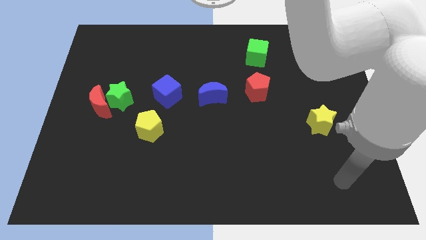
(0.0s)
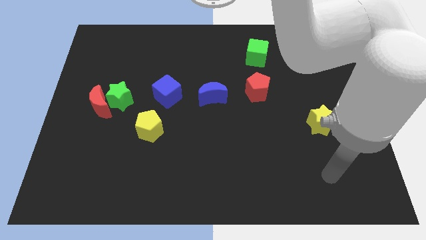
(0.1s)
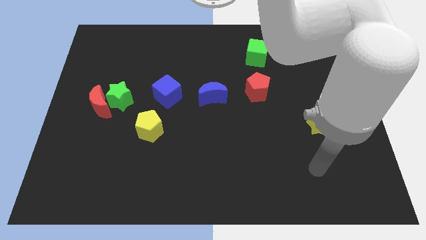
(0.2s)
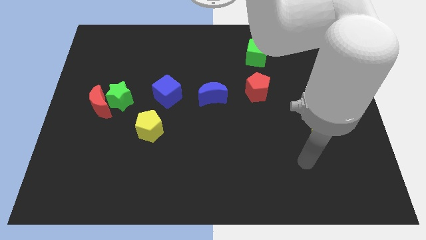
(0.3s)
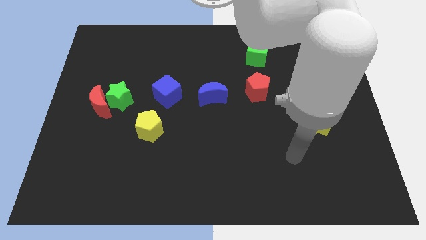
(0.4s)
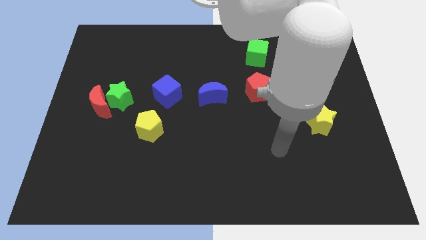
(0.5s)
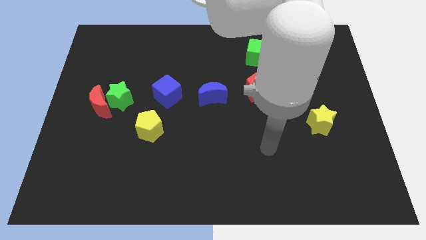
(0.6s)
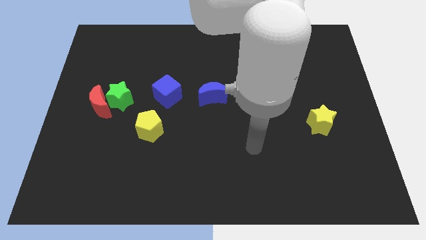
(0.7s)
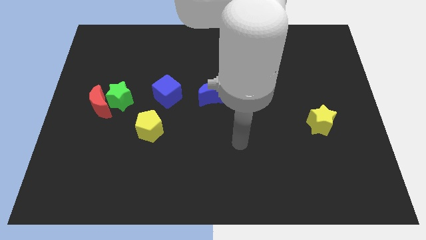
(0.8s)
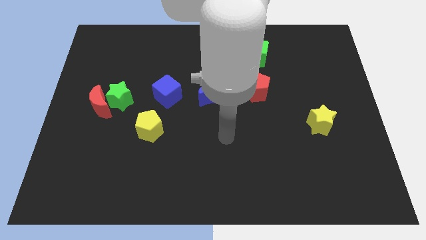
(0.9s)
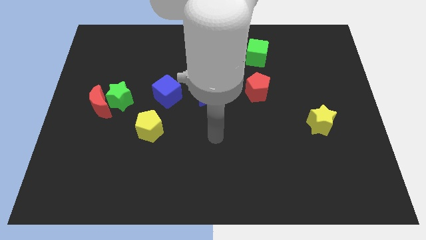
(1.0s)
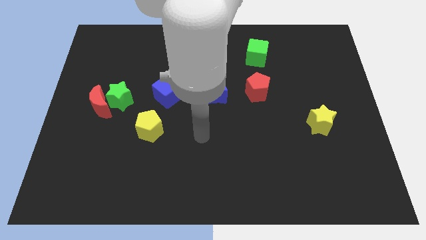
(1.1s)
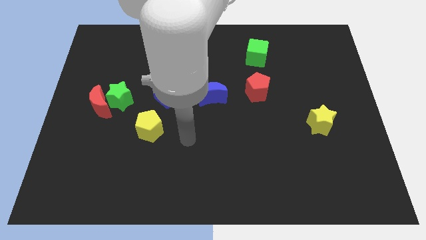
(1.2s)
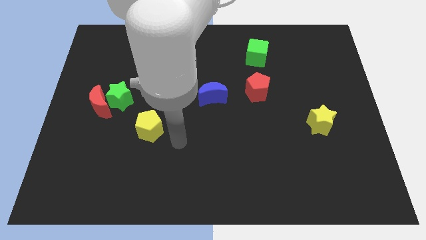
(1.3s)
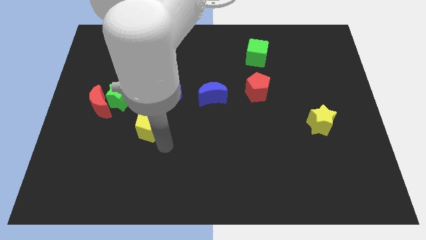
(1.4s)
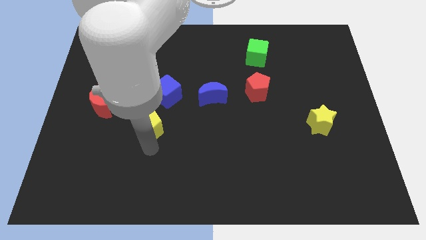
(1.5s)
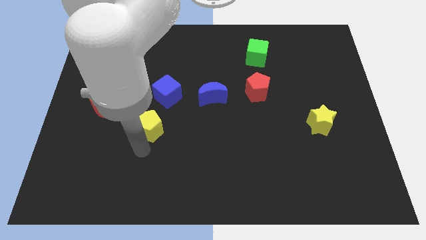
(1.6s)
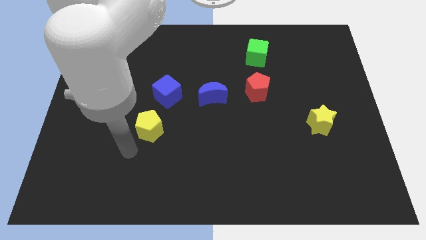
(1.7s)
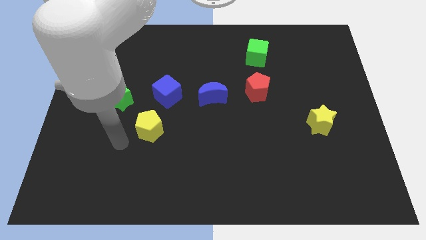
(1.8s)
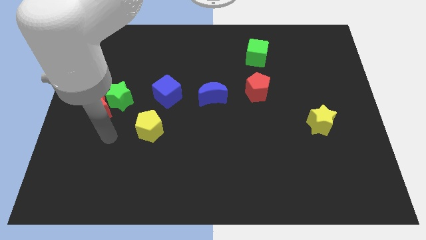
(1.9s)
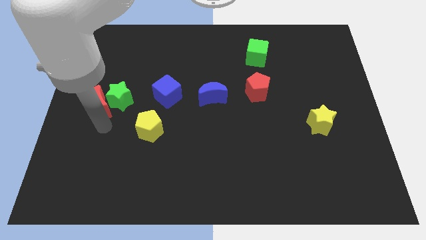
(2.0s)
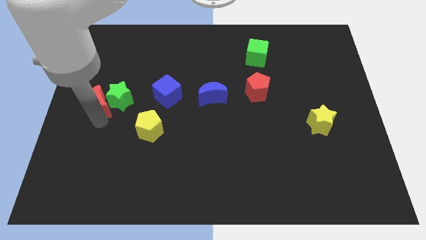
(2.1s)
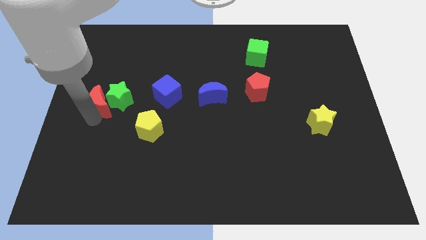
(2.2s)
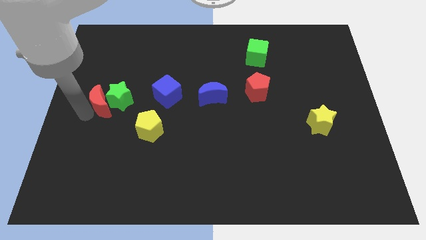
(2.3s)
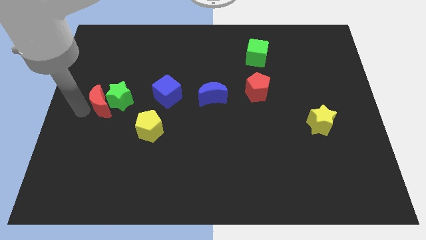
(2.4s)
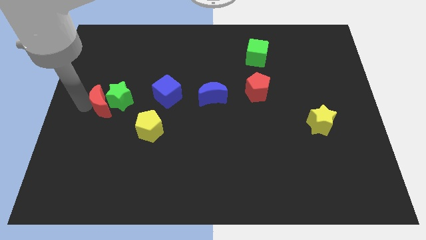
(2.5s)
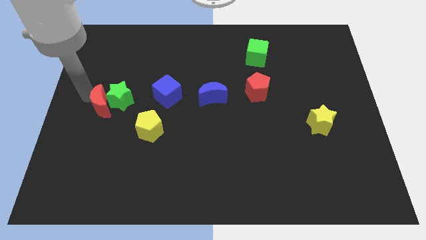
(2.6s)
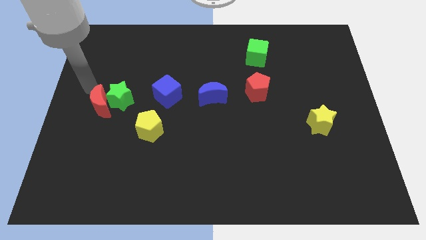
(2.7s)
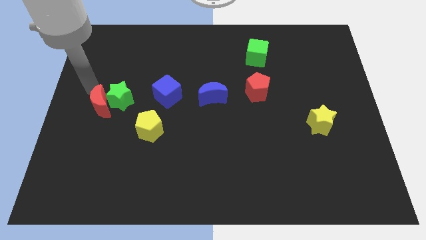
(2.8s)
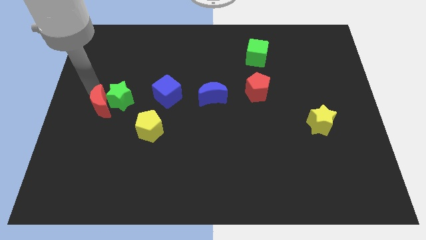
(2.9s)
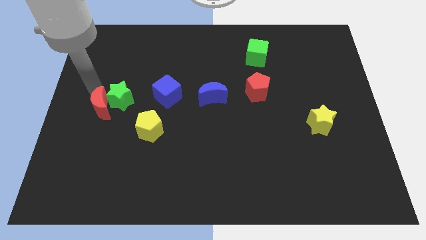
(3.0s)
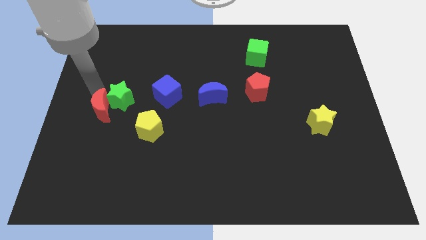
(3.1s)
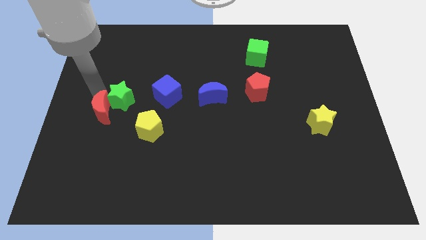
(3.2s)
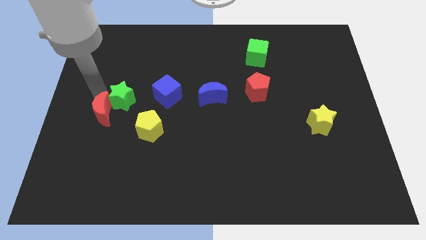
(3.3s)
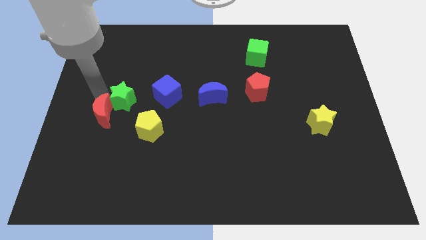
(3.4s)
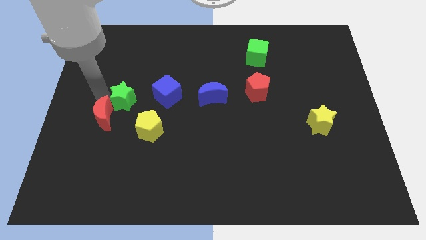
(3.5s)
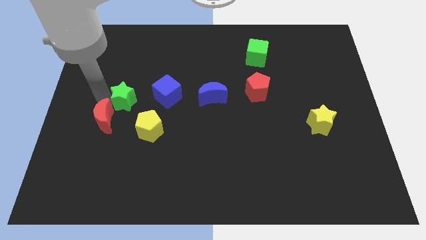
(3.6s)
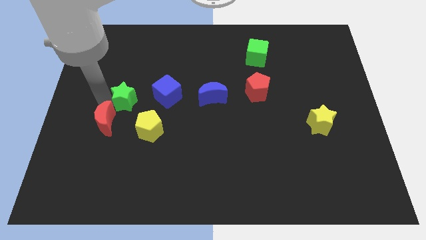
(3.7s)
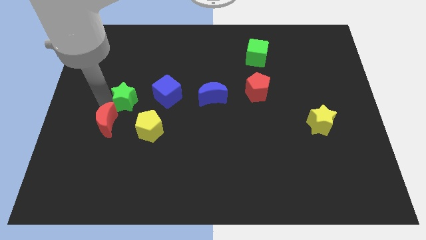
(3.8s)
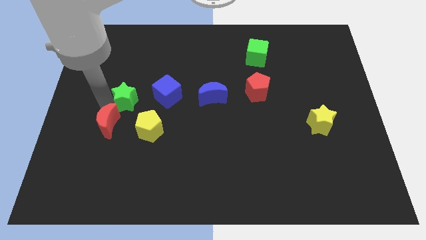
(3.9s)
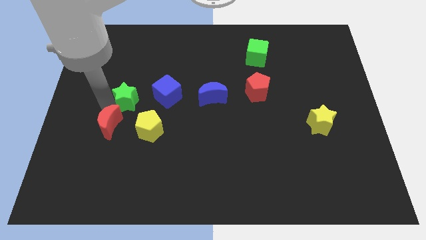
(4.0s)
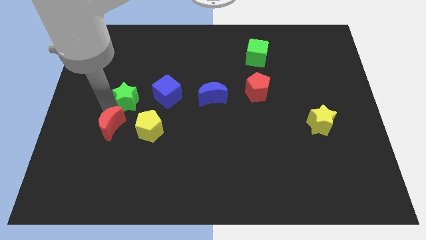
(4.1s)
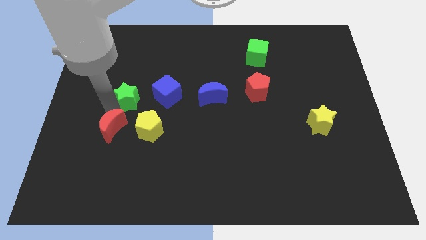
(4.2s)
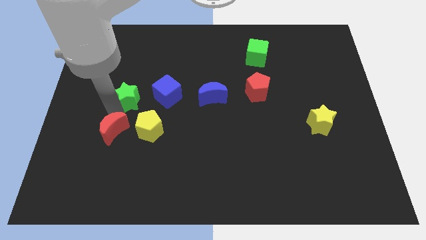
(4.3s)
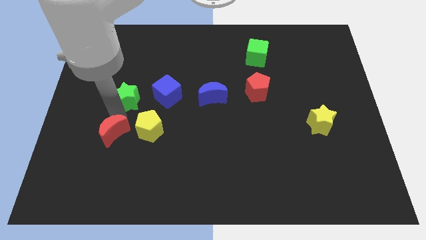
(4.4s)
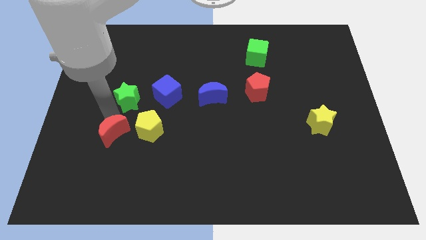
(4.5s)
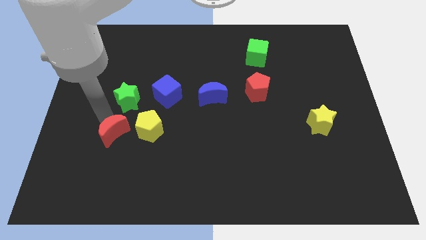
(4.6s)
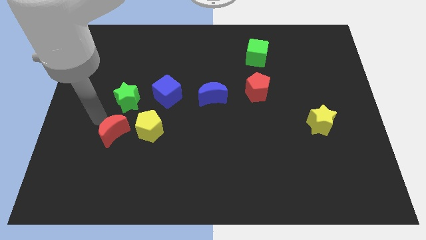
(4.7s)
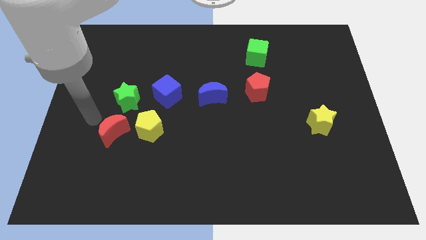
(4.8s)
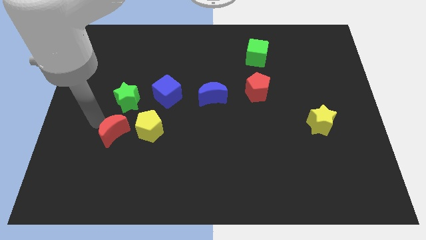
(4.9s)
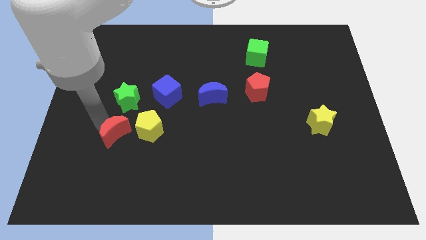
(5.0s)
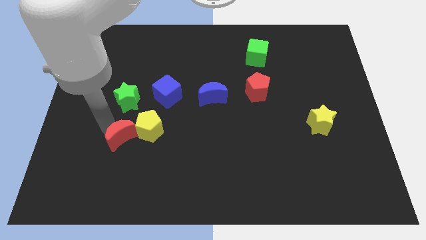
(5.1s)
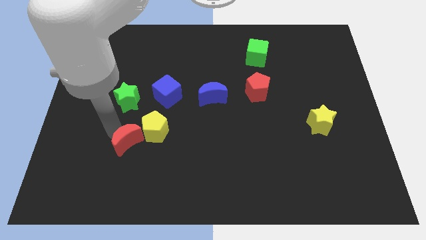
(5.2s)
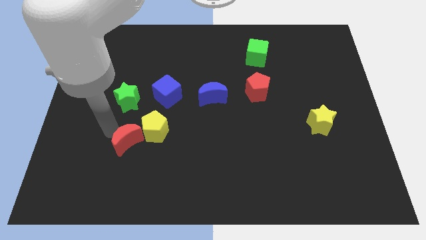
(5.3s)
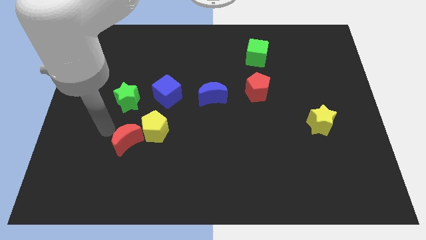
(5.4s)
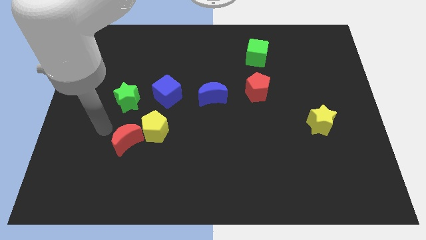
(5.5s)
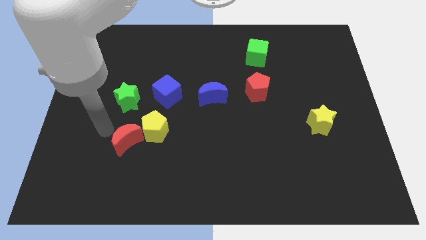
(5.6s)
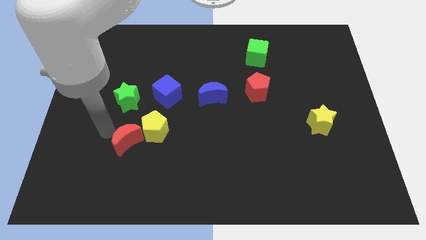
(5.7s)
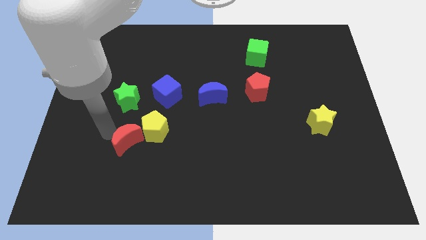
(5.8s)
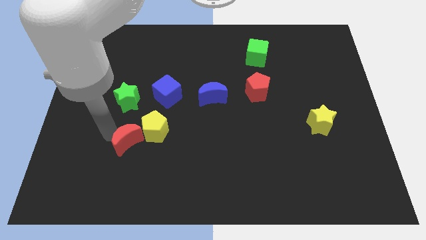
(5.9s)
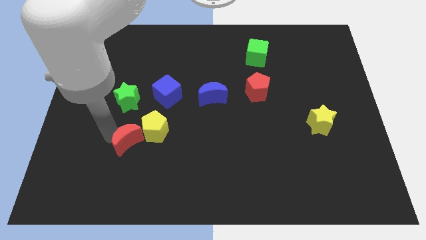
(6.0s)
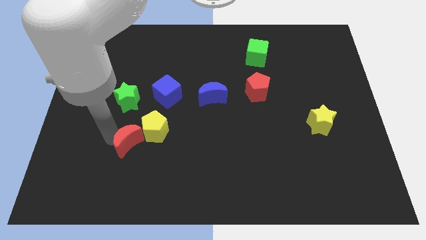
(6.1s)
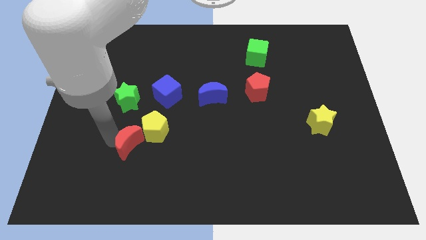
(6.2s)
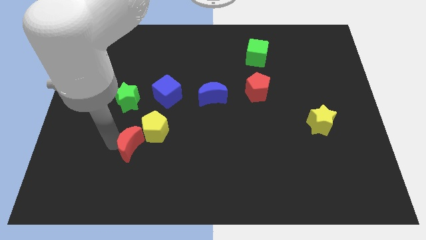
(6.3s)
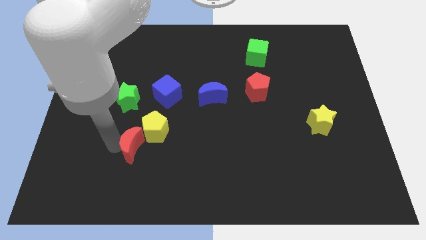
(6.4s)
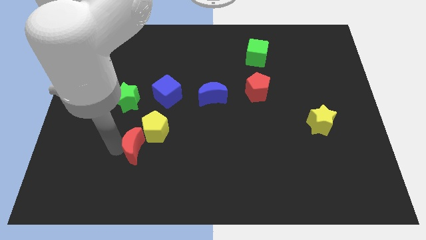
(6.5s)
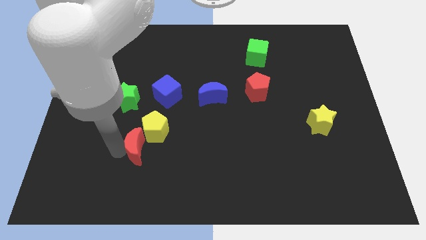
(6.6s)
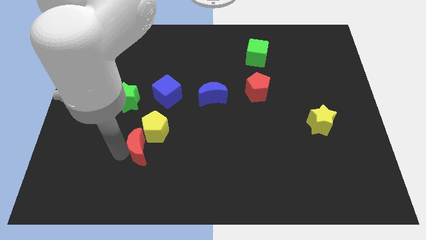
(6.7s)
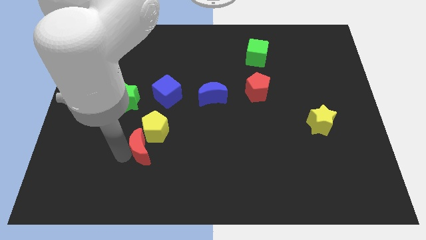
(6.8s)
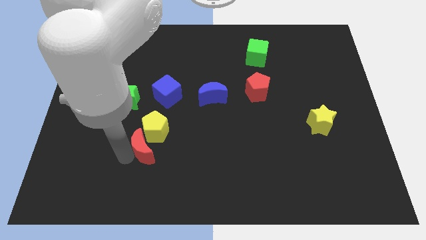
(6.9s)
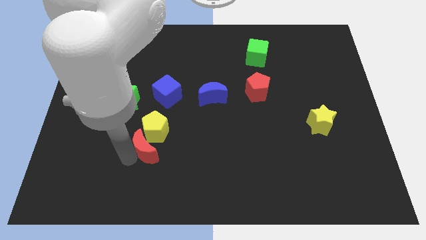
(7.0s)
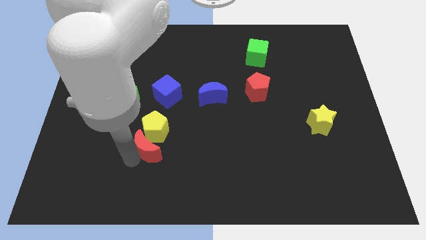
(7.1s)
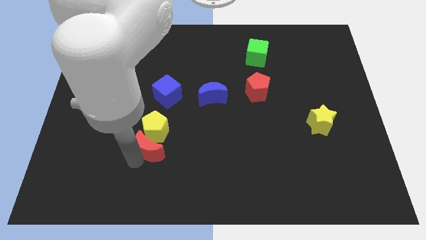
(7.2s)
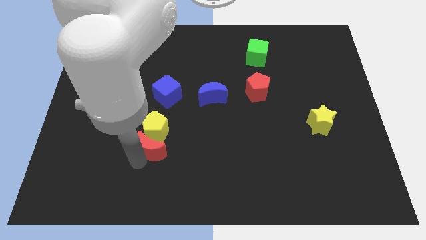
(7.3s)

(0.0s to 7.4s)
slide the red moon to the bottom of the blue cube
